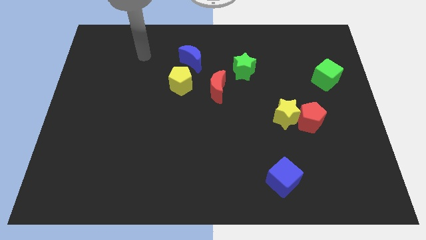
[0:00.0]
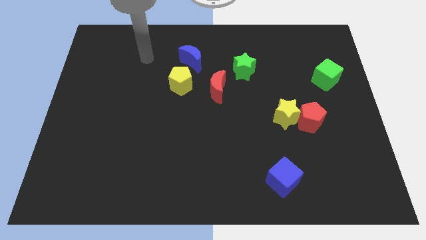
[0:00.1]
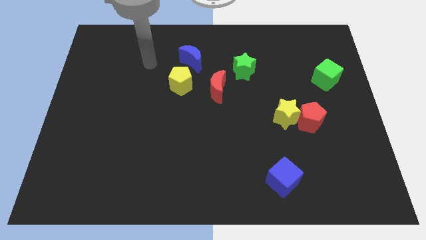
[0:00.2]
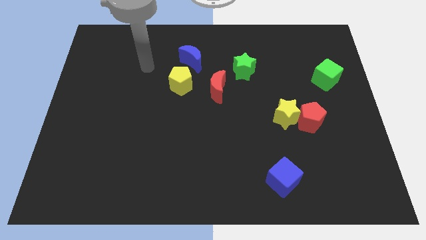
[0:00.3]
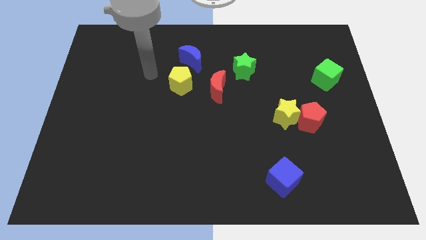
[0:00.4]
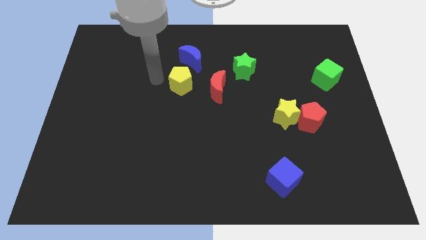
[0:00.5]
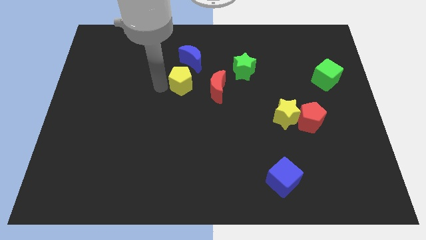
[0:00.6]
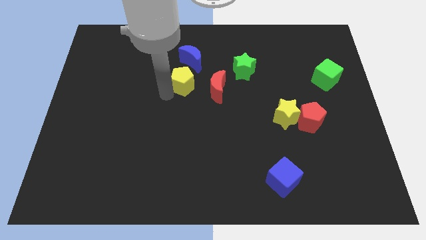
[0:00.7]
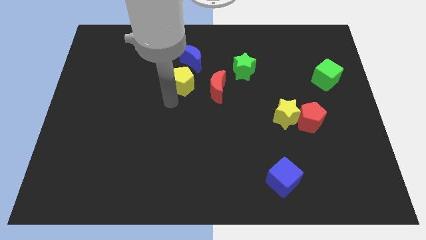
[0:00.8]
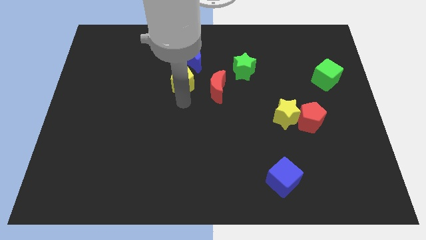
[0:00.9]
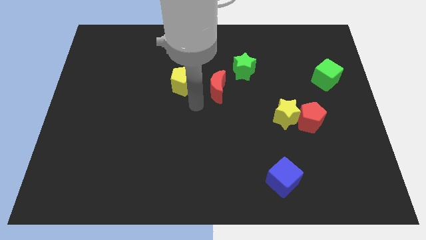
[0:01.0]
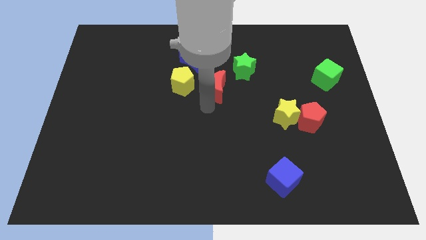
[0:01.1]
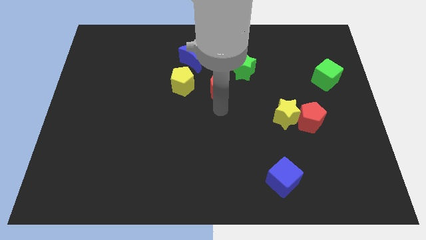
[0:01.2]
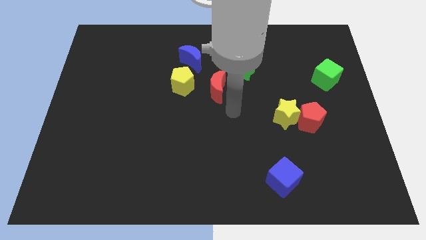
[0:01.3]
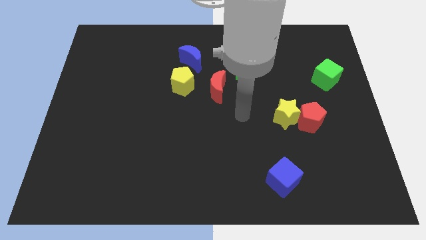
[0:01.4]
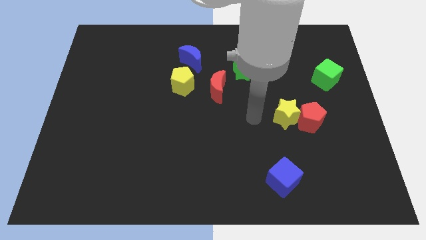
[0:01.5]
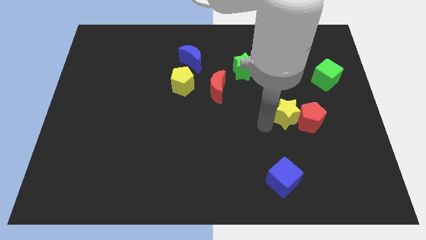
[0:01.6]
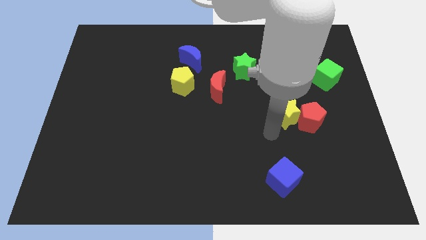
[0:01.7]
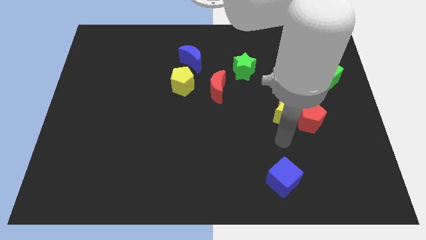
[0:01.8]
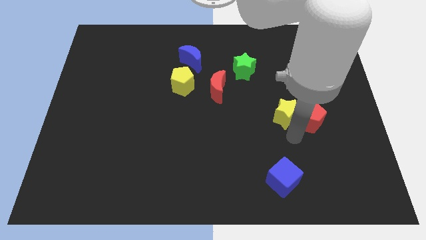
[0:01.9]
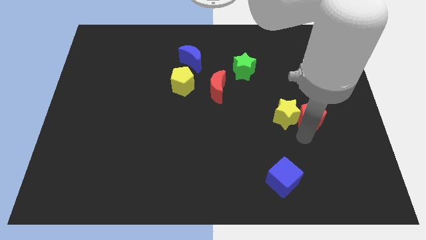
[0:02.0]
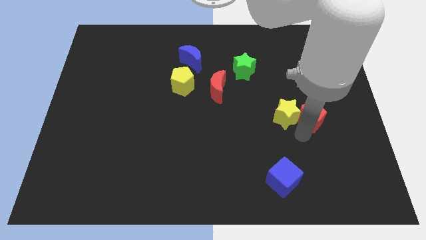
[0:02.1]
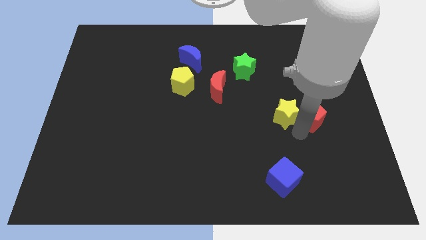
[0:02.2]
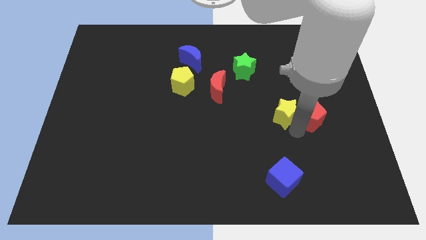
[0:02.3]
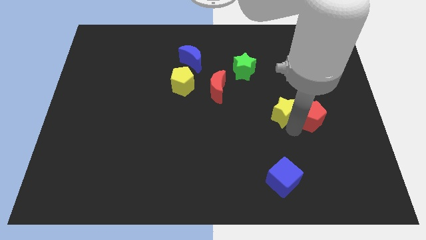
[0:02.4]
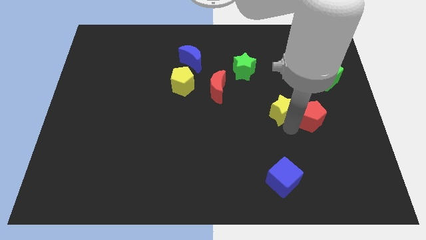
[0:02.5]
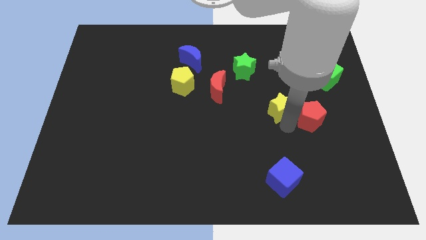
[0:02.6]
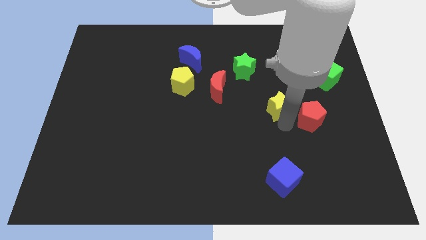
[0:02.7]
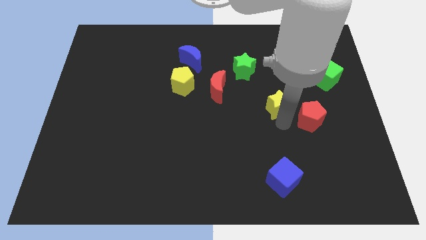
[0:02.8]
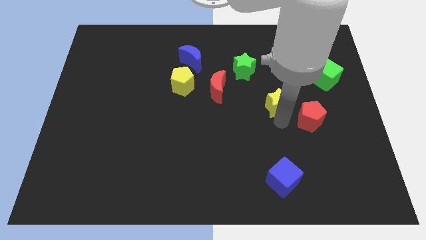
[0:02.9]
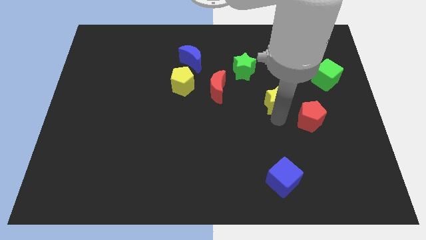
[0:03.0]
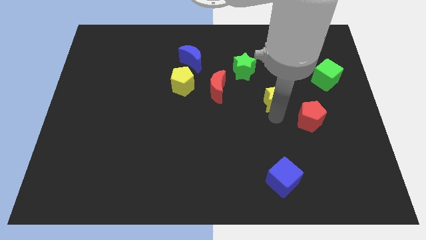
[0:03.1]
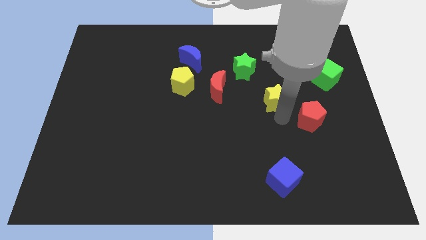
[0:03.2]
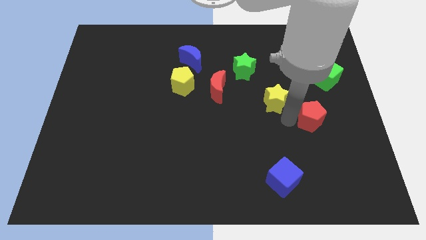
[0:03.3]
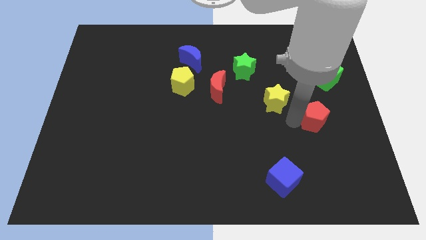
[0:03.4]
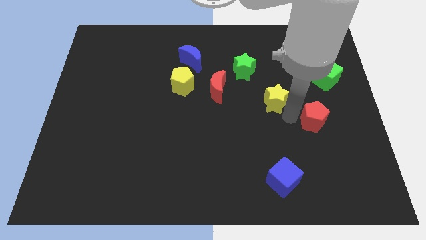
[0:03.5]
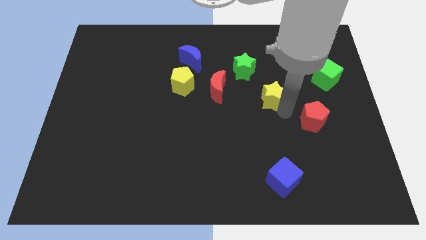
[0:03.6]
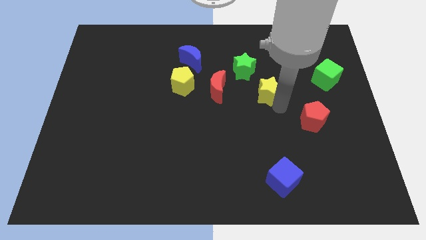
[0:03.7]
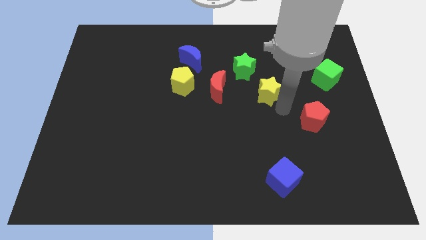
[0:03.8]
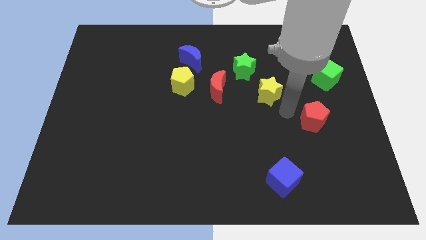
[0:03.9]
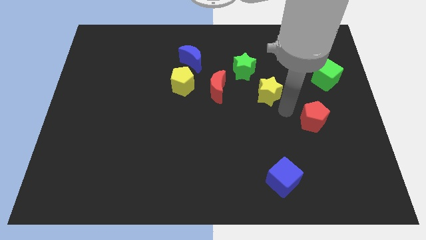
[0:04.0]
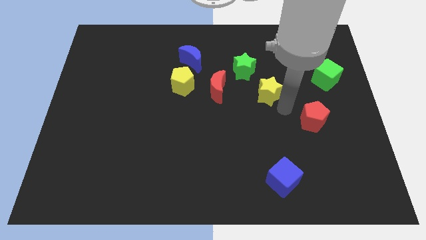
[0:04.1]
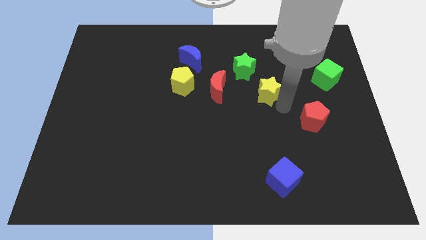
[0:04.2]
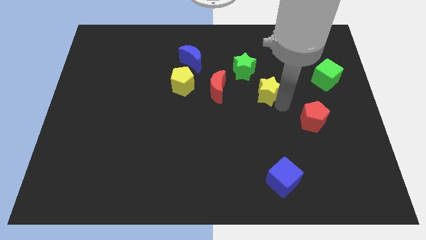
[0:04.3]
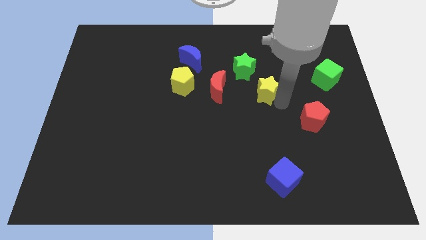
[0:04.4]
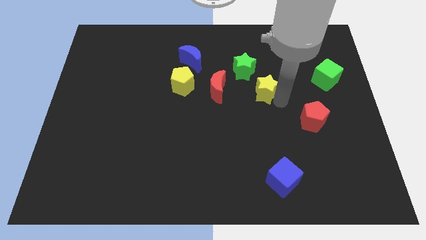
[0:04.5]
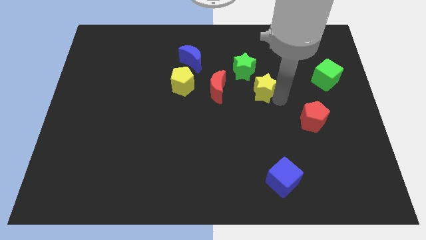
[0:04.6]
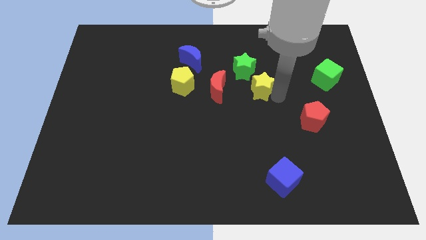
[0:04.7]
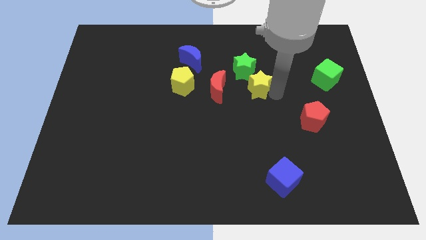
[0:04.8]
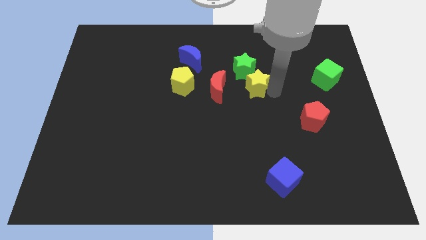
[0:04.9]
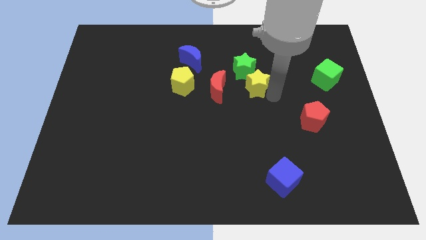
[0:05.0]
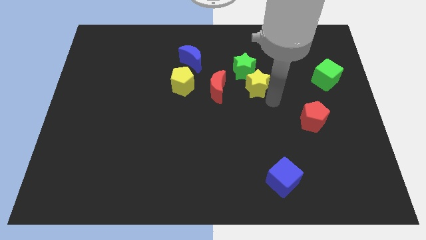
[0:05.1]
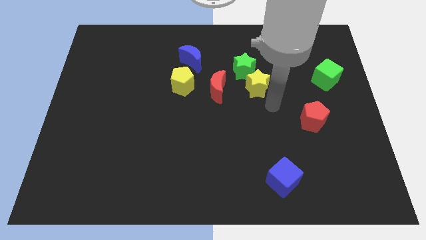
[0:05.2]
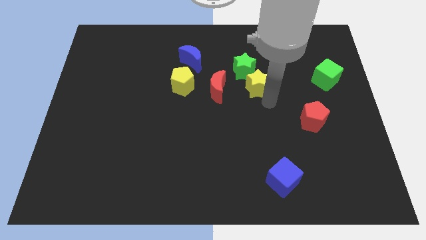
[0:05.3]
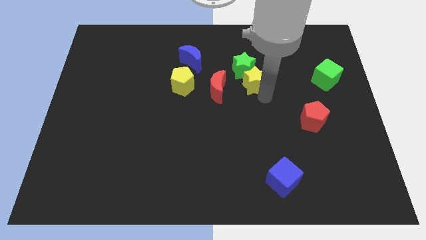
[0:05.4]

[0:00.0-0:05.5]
move the yellow star close to the green star

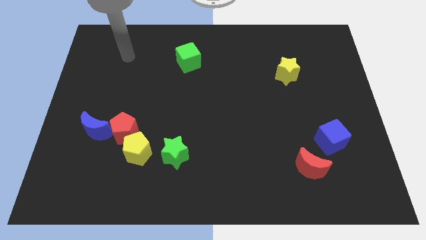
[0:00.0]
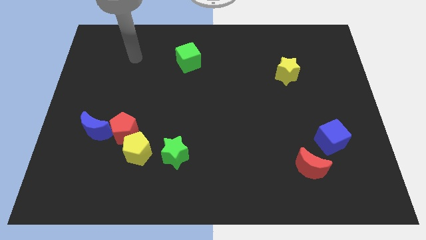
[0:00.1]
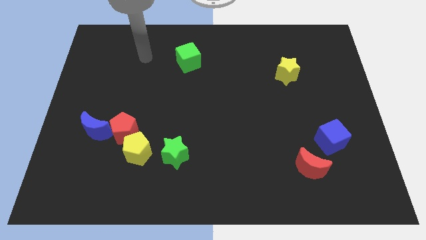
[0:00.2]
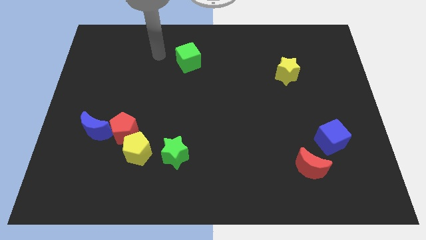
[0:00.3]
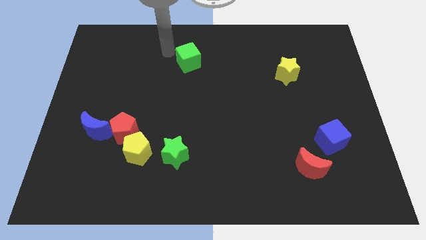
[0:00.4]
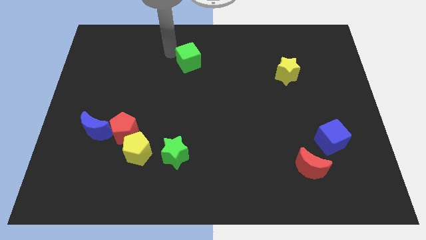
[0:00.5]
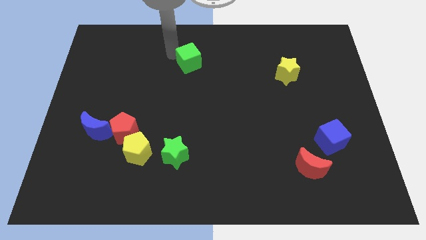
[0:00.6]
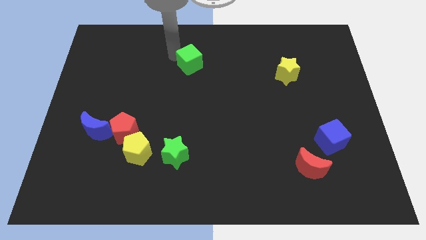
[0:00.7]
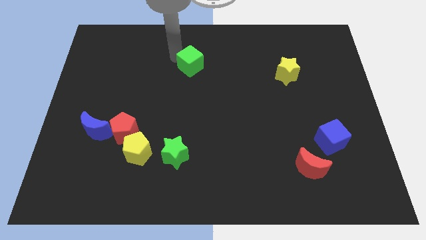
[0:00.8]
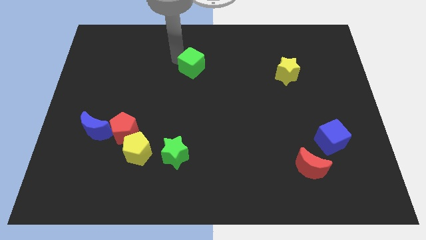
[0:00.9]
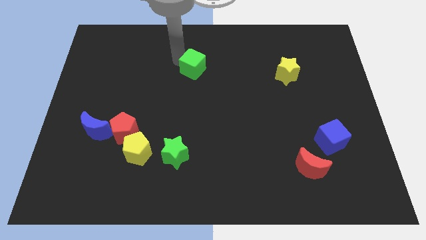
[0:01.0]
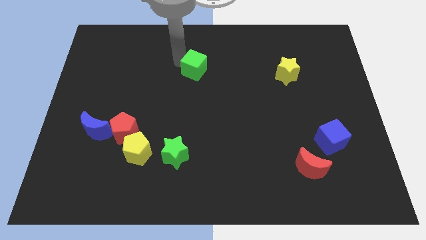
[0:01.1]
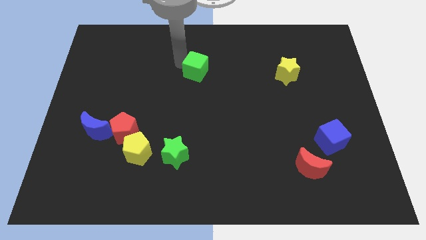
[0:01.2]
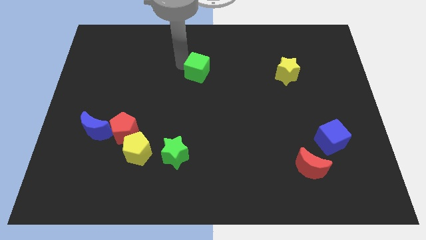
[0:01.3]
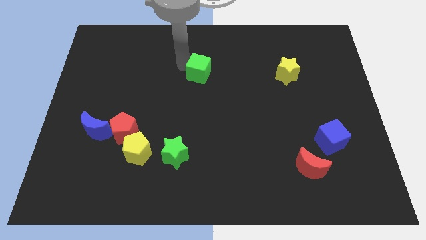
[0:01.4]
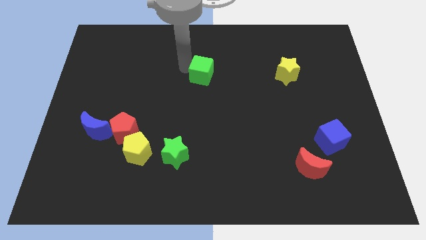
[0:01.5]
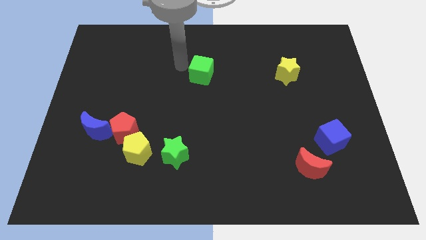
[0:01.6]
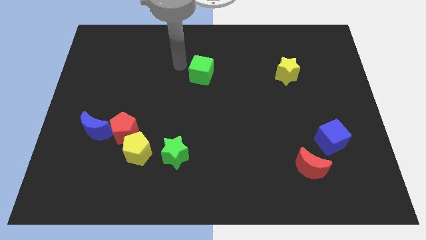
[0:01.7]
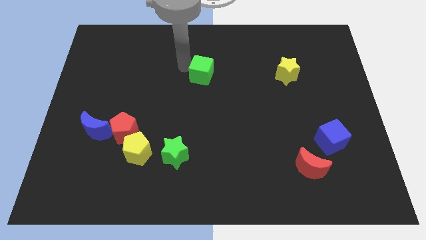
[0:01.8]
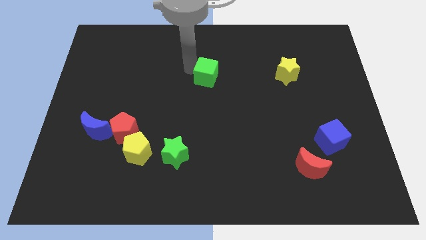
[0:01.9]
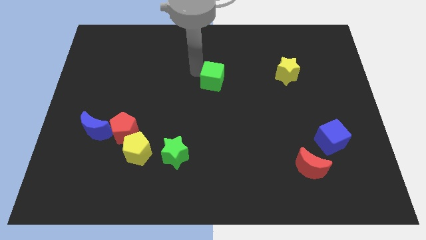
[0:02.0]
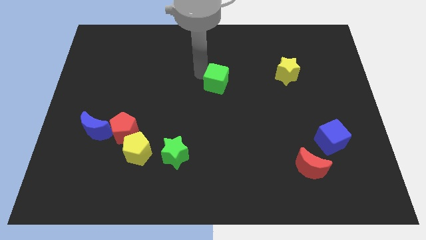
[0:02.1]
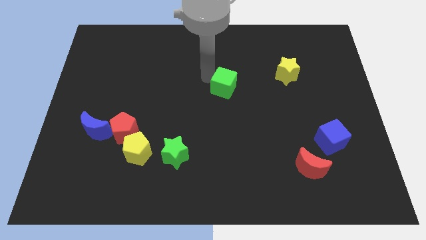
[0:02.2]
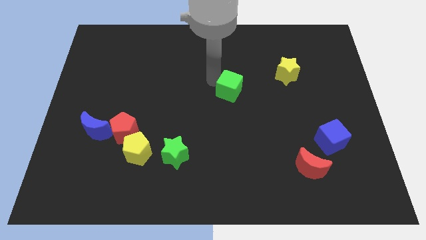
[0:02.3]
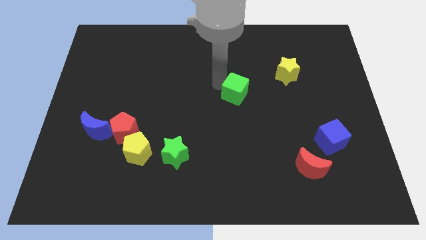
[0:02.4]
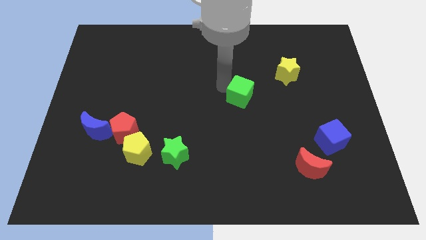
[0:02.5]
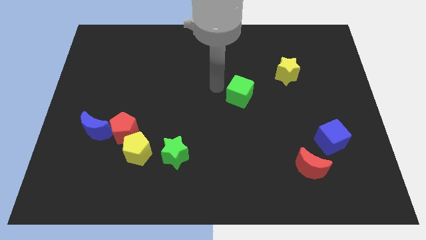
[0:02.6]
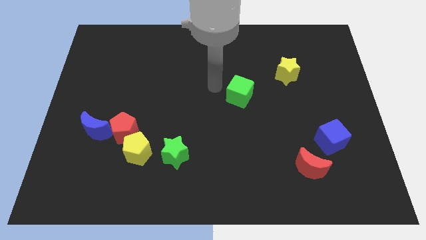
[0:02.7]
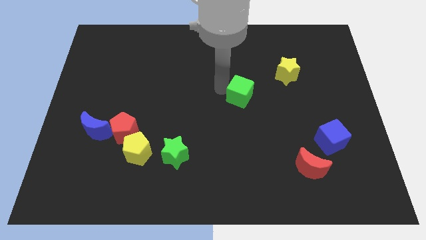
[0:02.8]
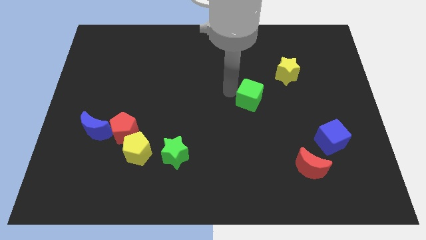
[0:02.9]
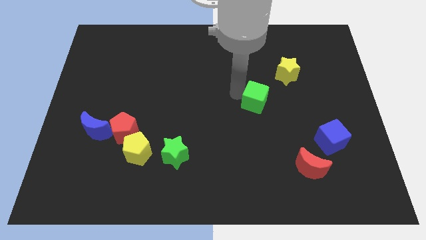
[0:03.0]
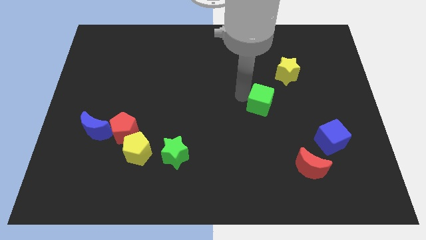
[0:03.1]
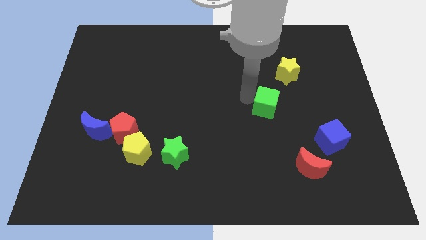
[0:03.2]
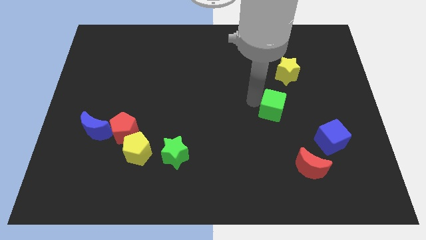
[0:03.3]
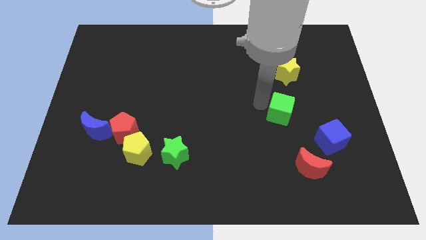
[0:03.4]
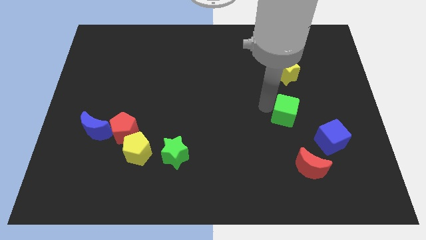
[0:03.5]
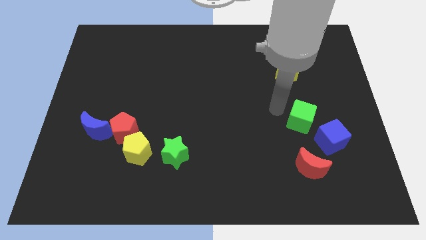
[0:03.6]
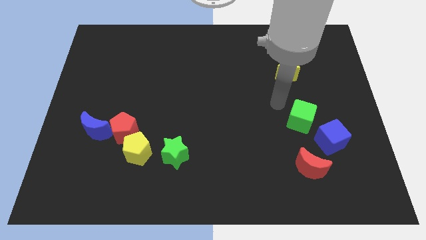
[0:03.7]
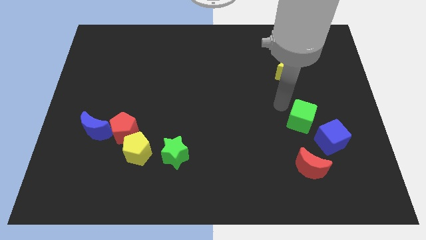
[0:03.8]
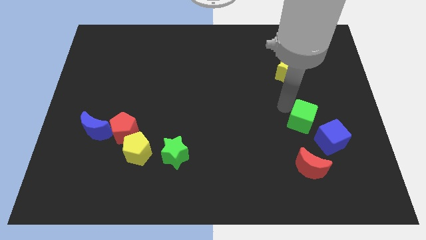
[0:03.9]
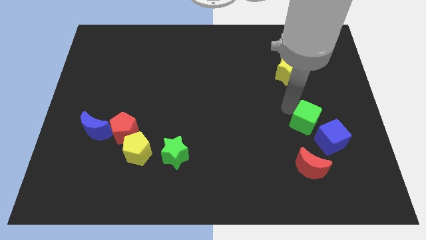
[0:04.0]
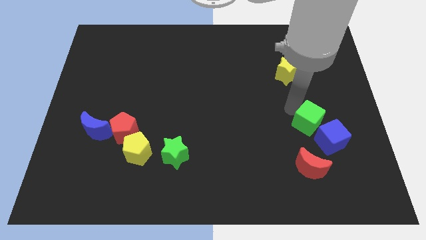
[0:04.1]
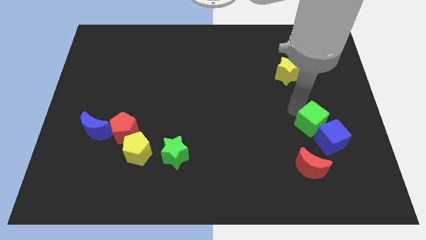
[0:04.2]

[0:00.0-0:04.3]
put the green cube towards the blue cube
